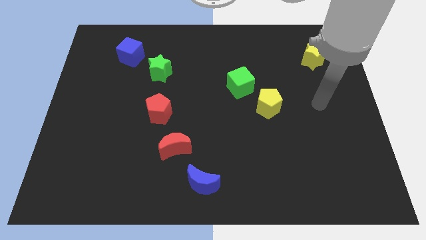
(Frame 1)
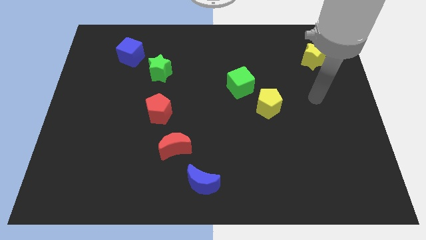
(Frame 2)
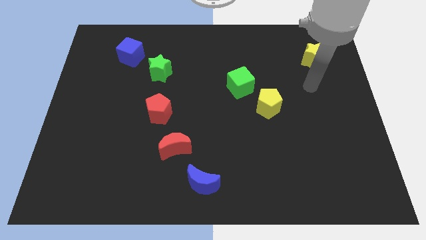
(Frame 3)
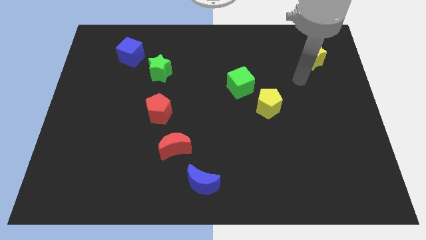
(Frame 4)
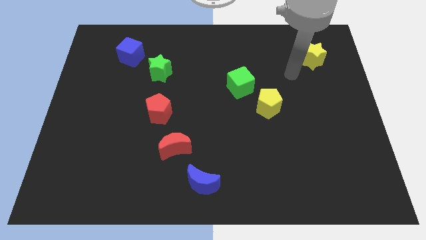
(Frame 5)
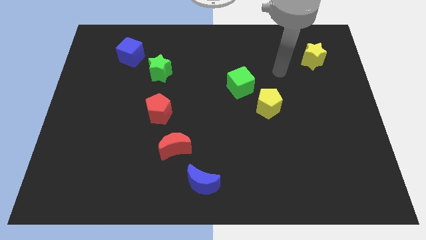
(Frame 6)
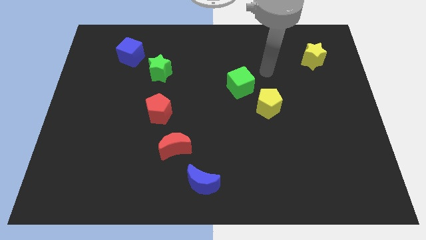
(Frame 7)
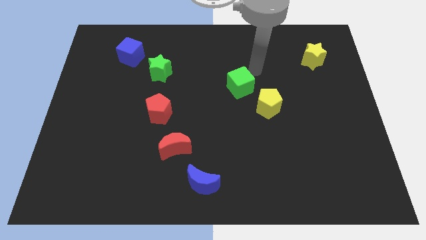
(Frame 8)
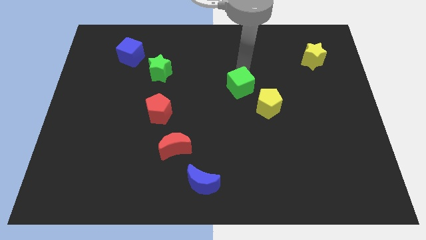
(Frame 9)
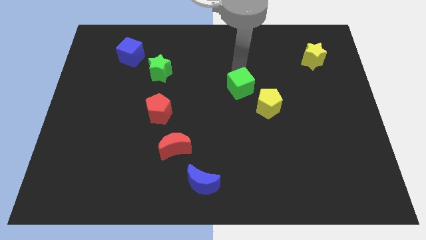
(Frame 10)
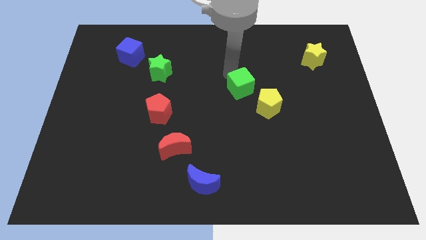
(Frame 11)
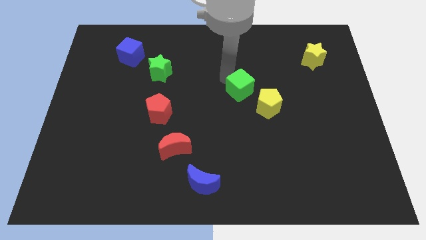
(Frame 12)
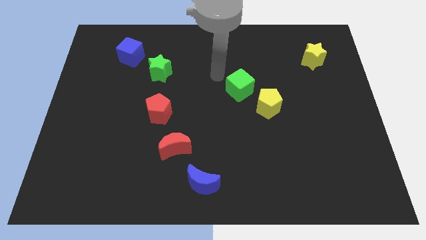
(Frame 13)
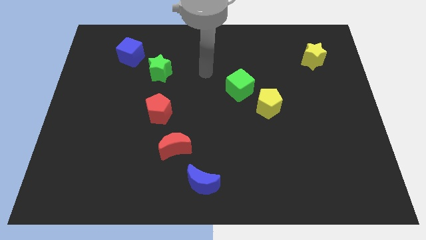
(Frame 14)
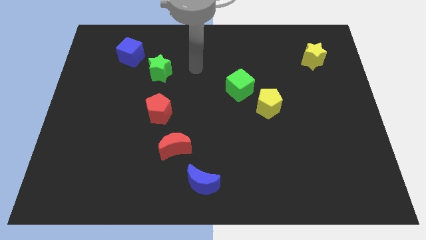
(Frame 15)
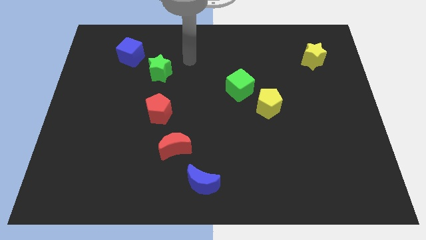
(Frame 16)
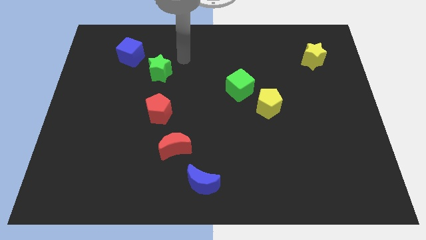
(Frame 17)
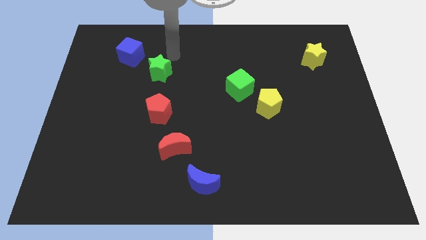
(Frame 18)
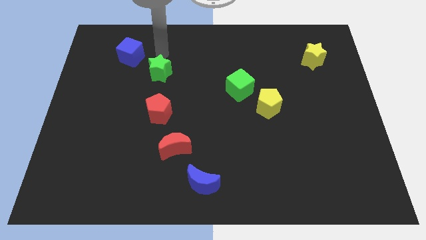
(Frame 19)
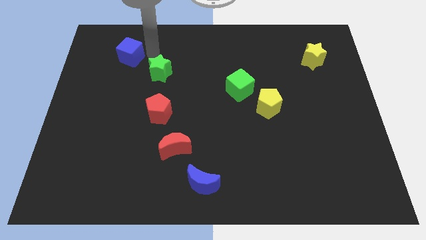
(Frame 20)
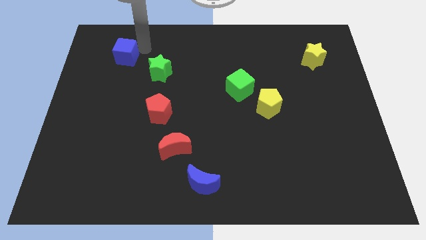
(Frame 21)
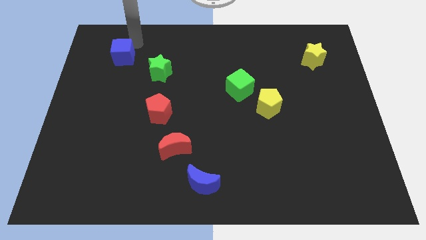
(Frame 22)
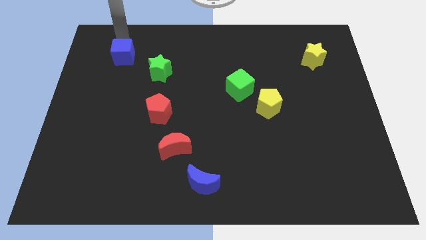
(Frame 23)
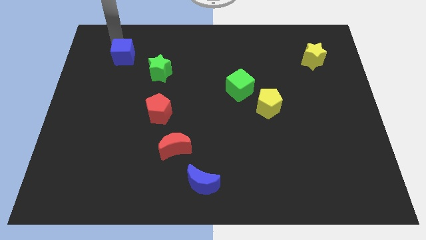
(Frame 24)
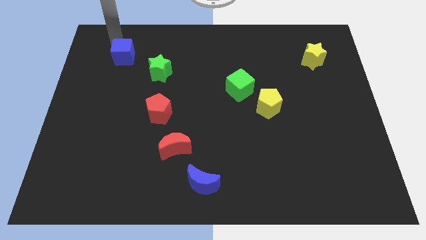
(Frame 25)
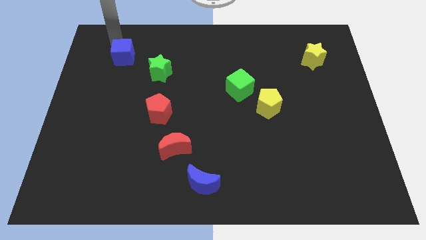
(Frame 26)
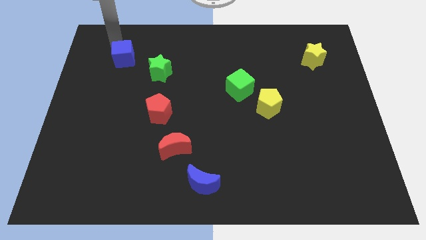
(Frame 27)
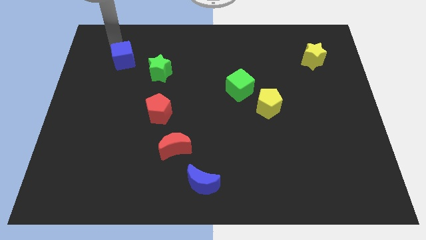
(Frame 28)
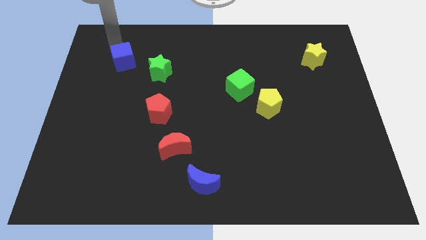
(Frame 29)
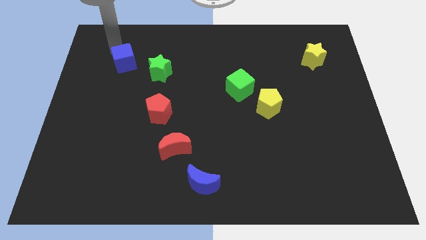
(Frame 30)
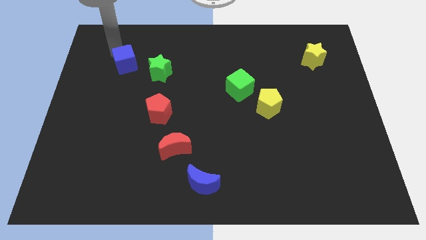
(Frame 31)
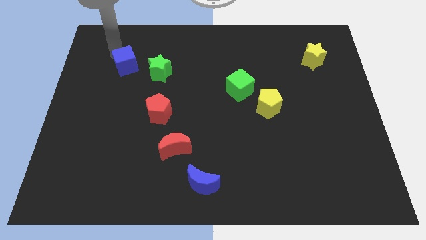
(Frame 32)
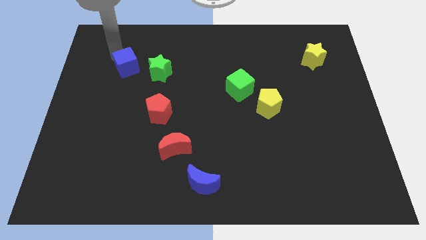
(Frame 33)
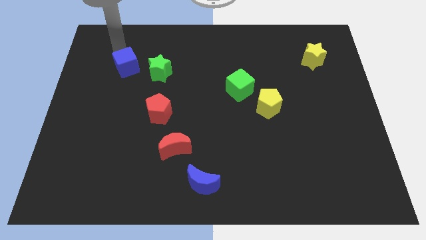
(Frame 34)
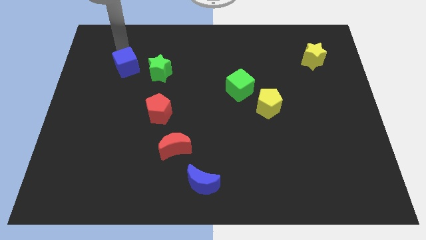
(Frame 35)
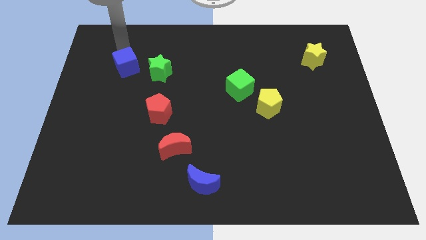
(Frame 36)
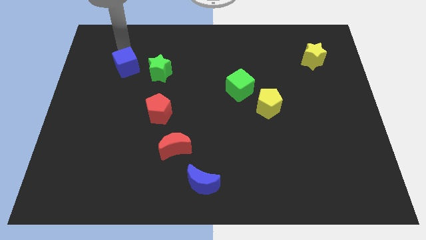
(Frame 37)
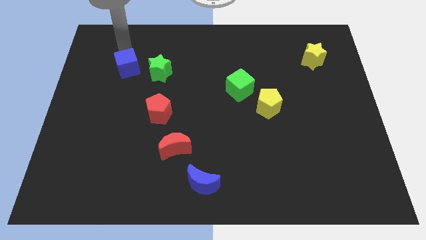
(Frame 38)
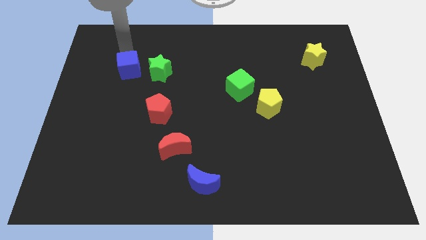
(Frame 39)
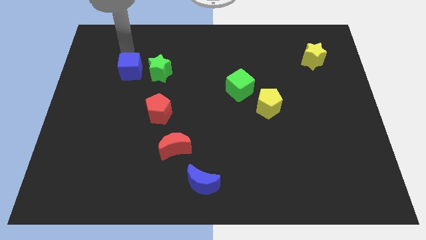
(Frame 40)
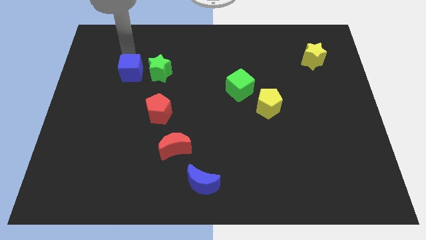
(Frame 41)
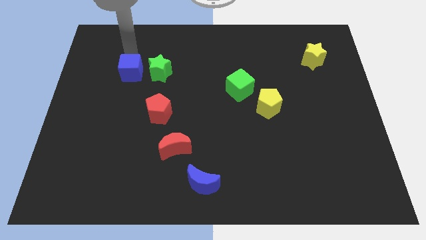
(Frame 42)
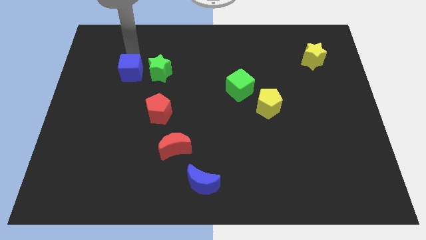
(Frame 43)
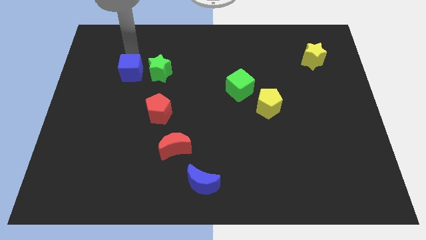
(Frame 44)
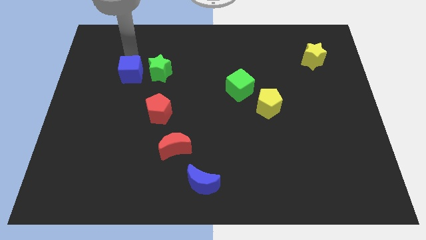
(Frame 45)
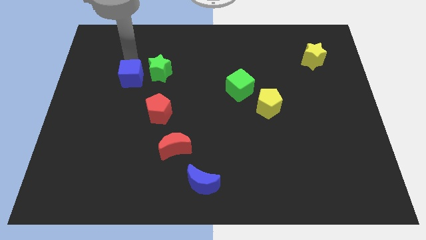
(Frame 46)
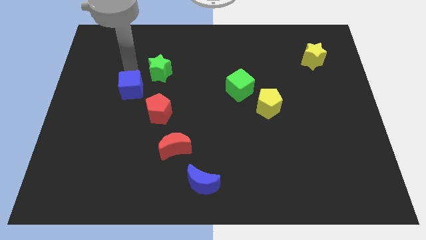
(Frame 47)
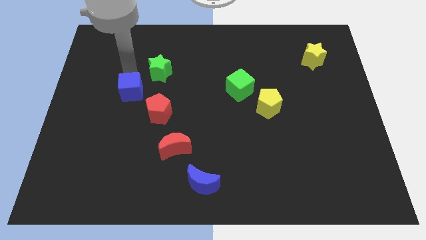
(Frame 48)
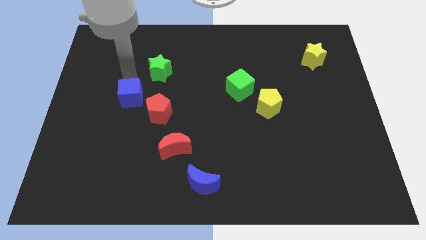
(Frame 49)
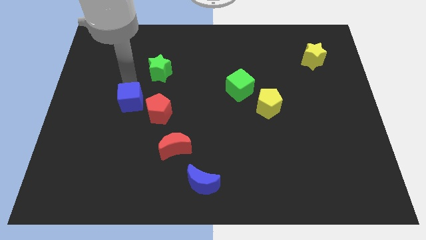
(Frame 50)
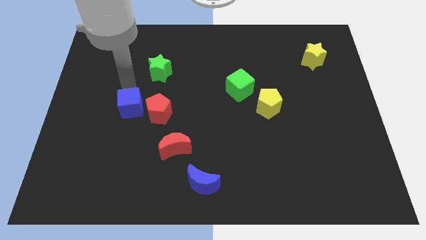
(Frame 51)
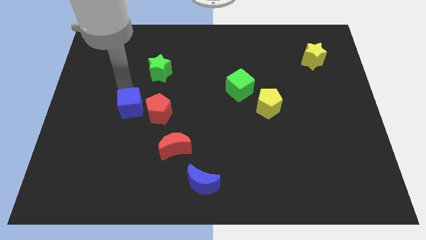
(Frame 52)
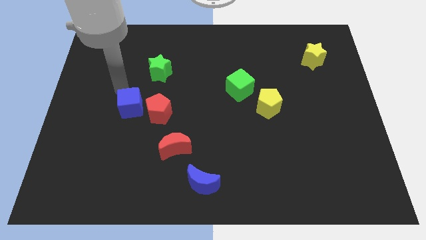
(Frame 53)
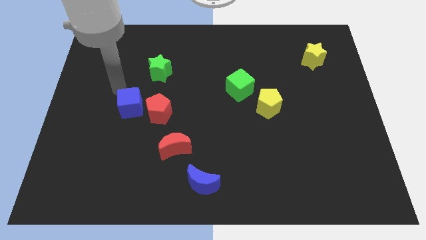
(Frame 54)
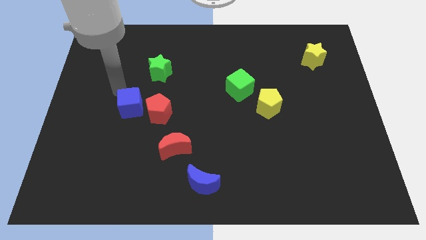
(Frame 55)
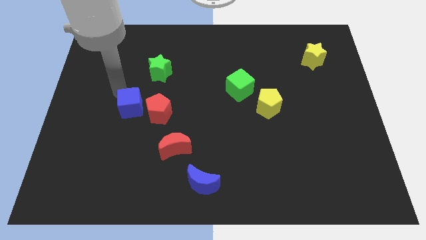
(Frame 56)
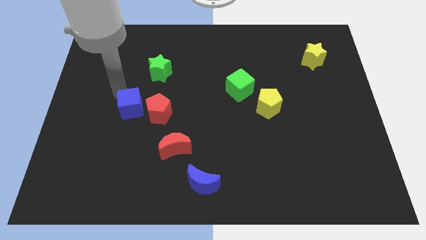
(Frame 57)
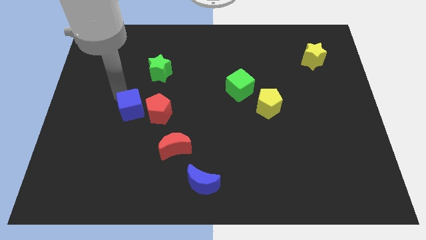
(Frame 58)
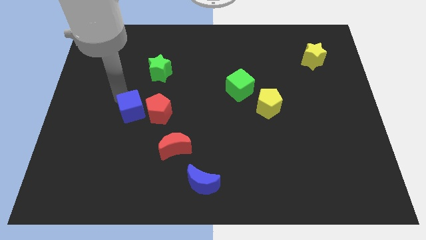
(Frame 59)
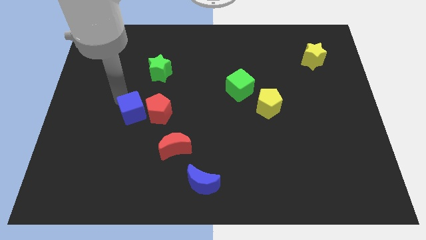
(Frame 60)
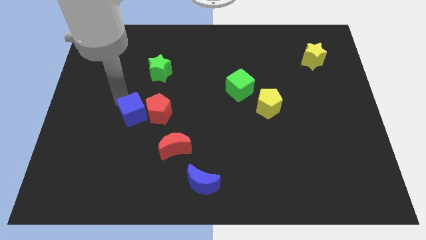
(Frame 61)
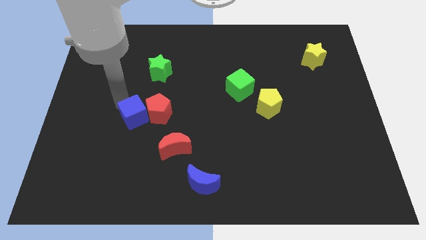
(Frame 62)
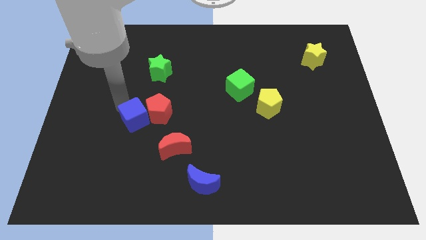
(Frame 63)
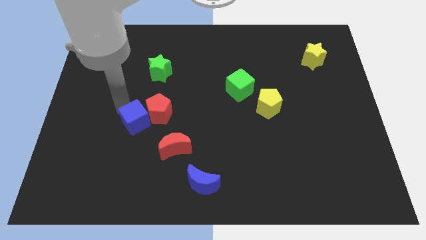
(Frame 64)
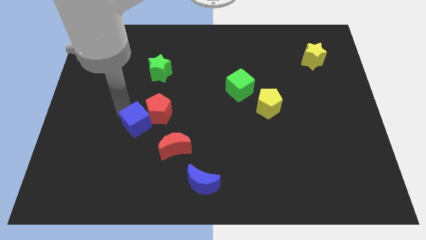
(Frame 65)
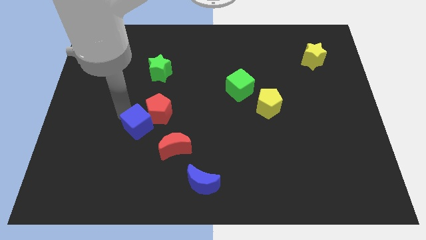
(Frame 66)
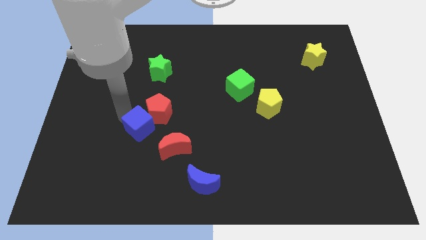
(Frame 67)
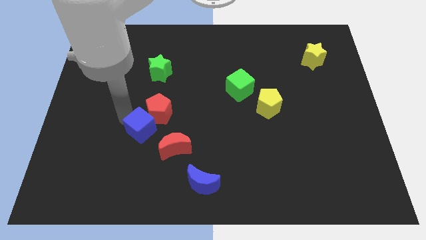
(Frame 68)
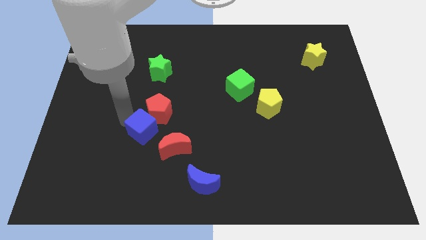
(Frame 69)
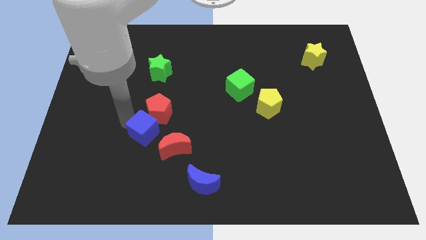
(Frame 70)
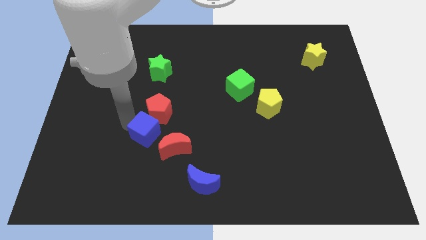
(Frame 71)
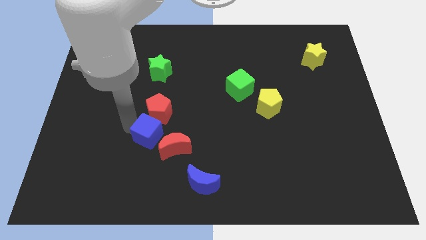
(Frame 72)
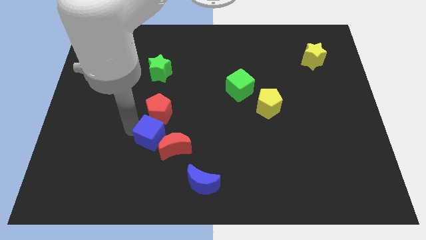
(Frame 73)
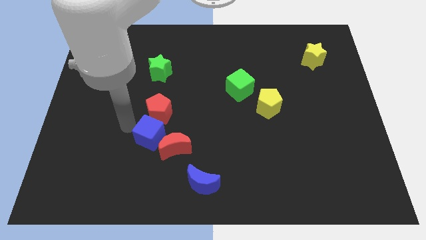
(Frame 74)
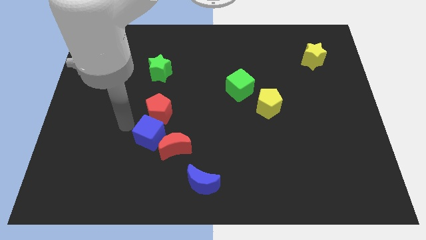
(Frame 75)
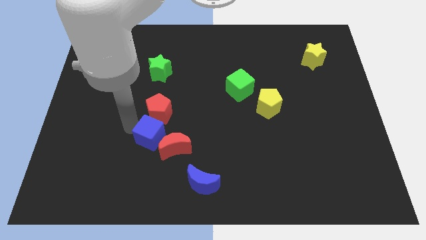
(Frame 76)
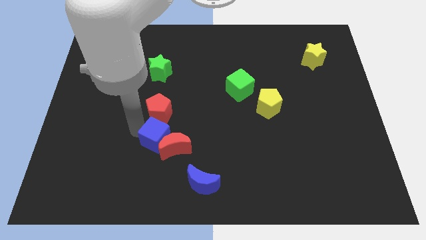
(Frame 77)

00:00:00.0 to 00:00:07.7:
move the blue cube to the red moon
